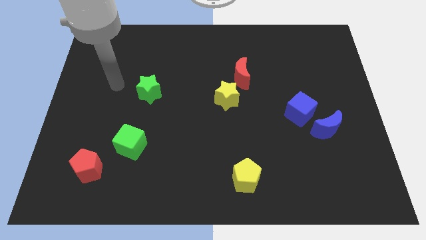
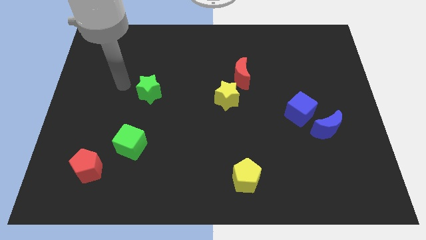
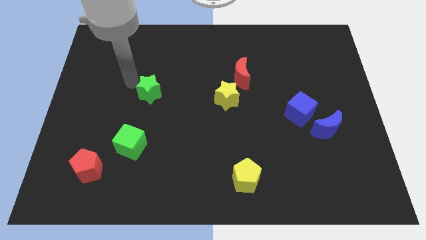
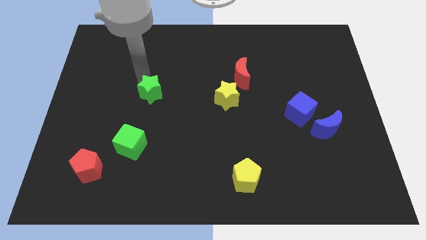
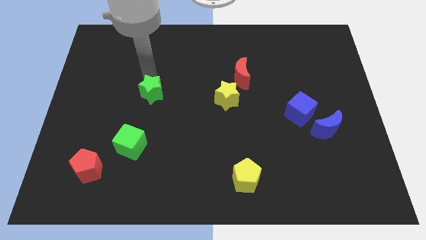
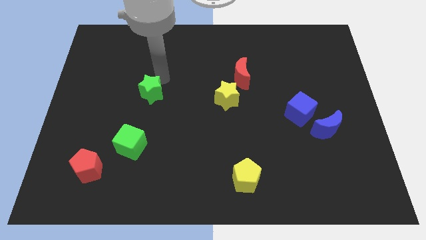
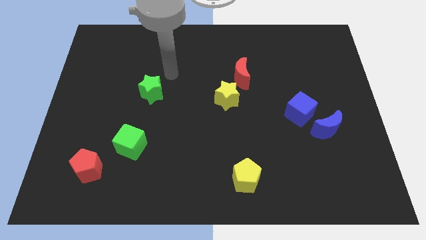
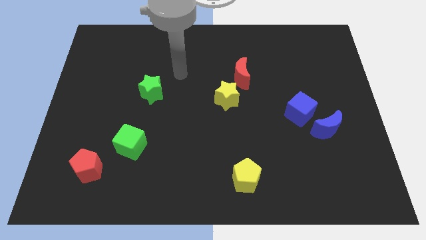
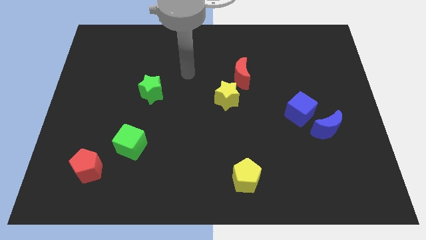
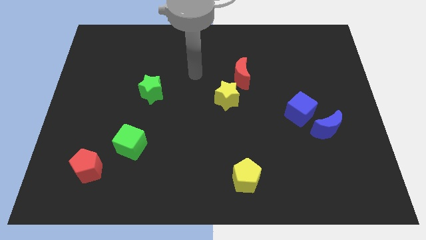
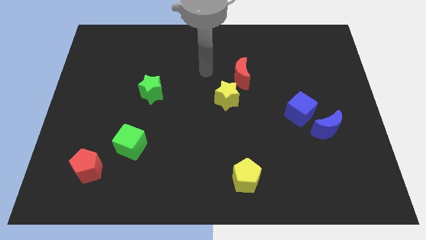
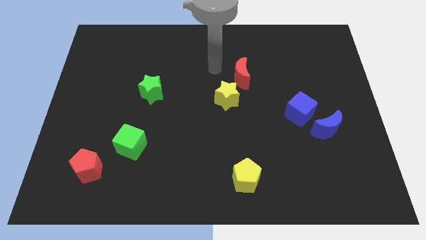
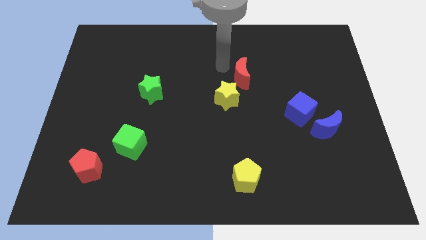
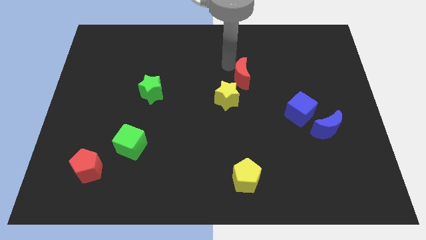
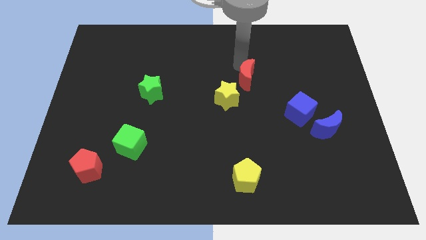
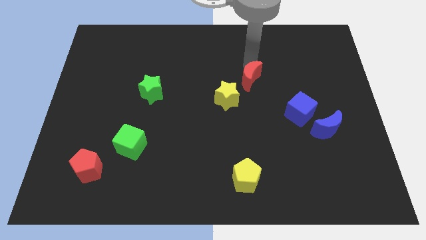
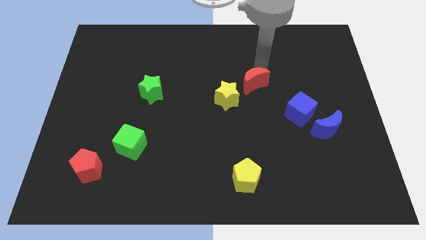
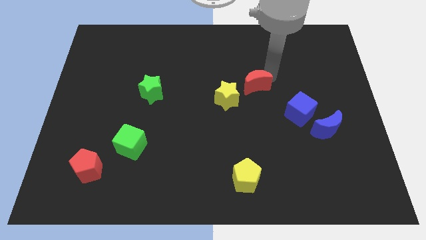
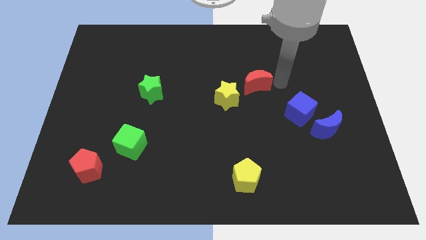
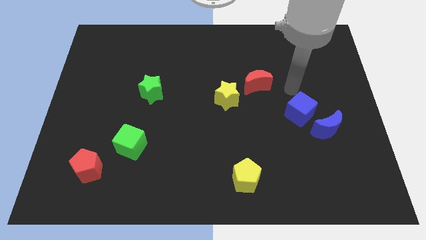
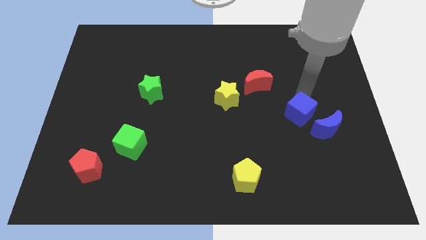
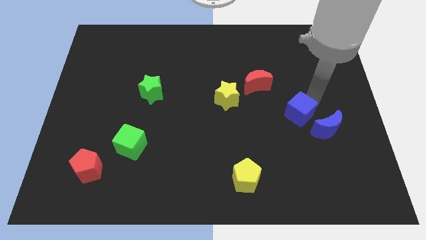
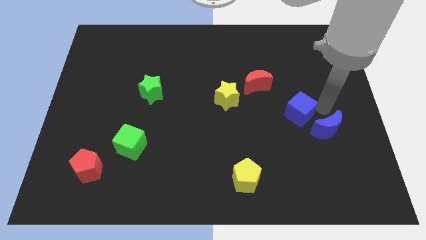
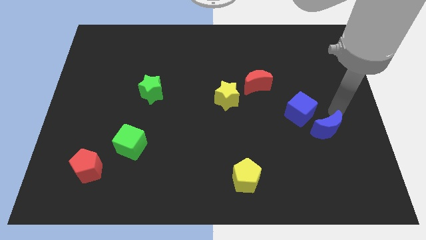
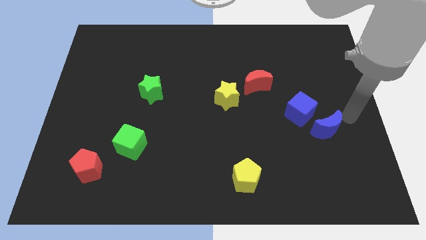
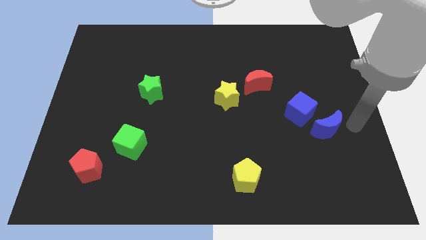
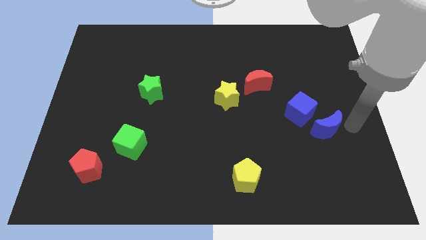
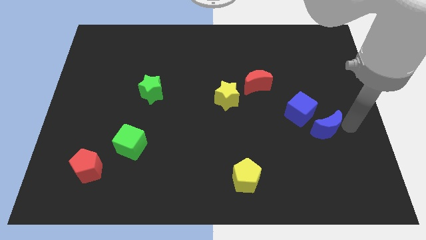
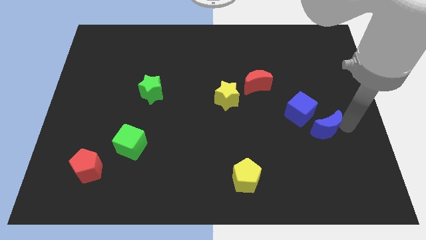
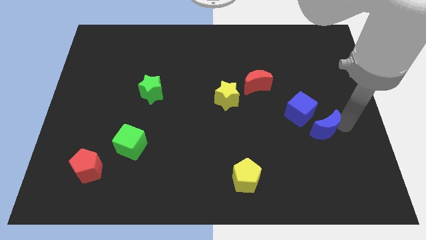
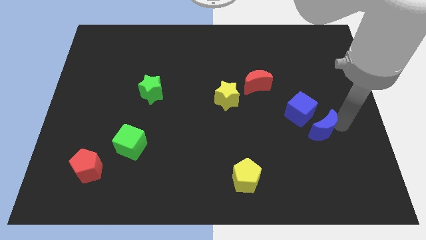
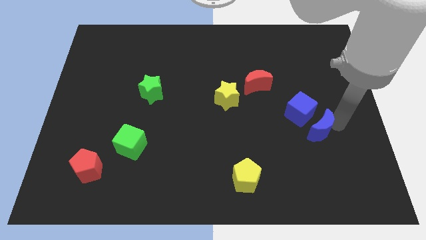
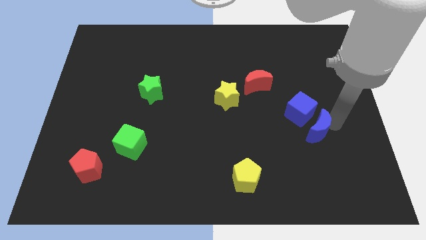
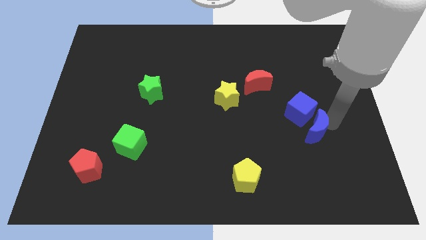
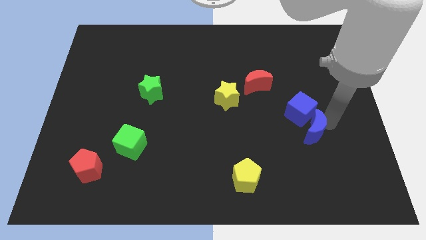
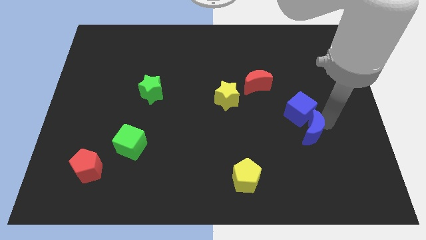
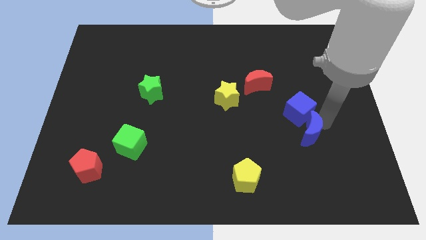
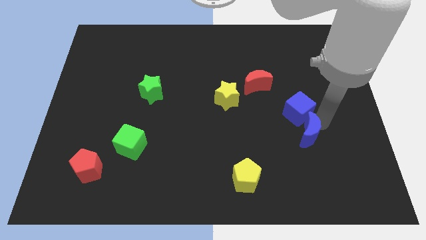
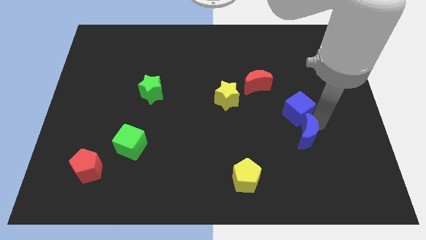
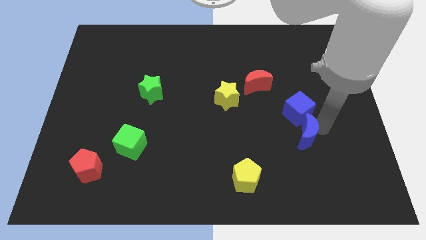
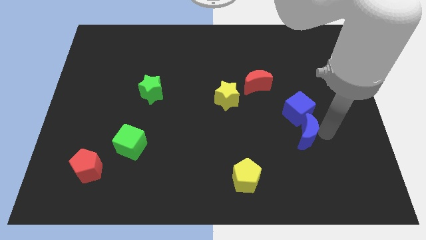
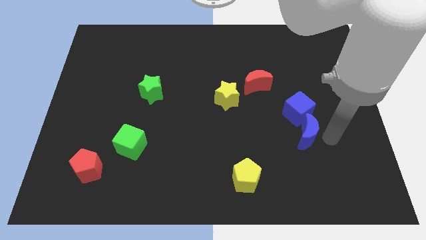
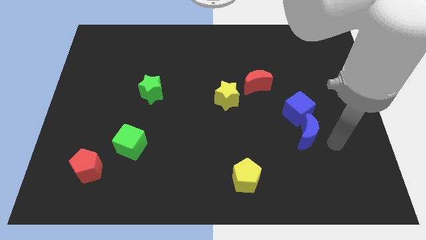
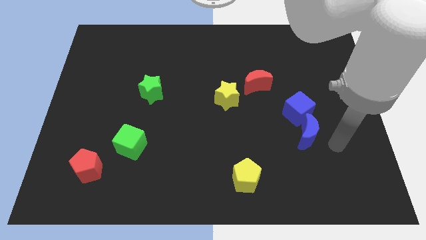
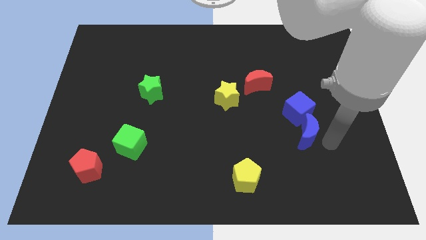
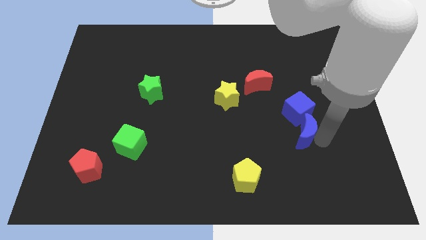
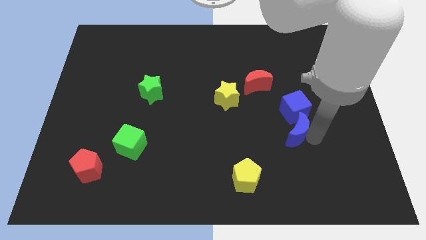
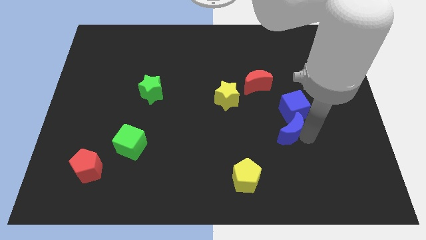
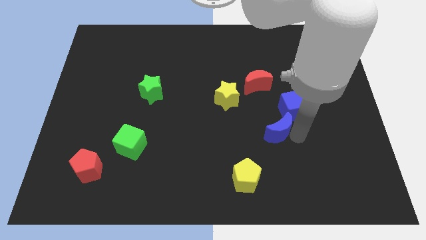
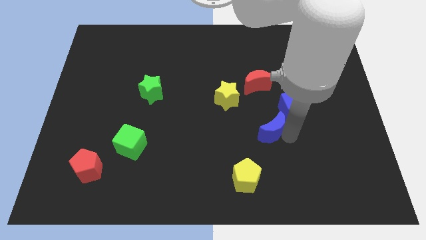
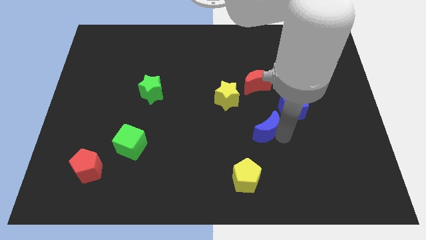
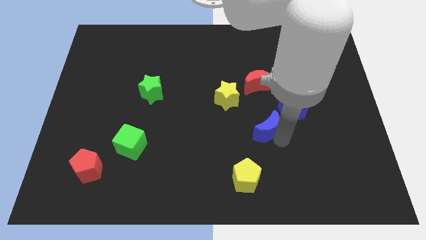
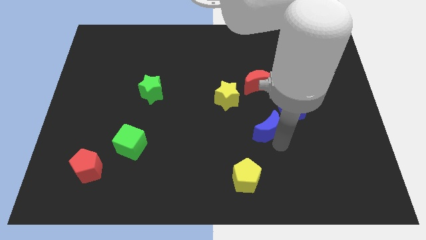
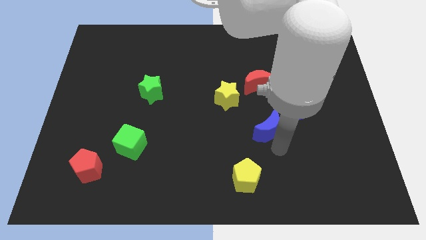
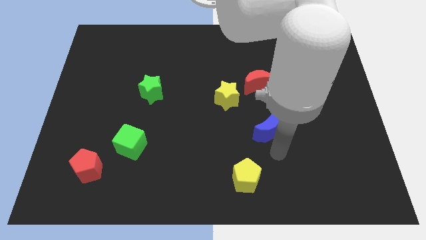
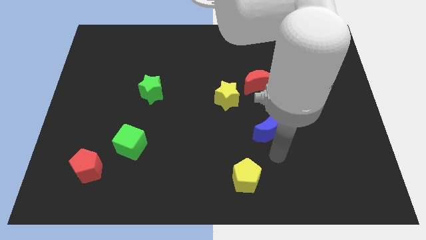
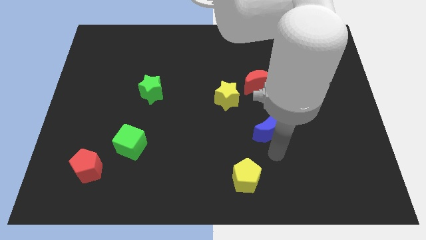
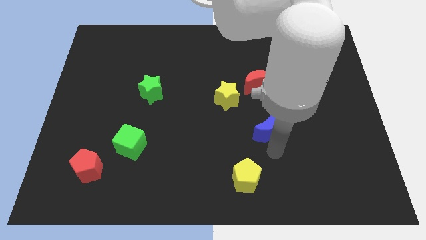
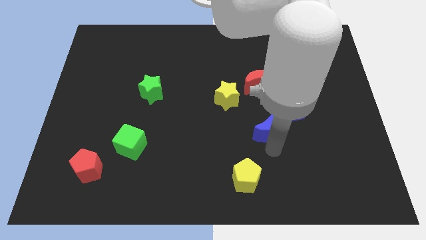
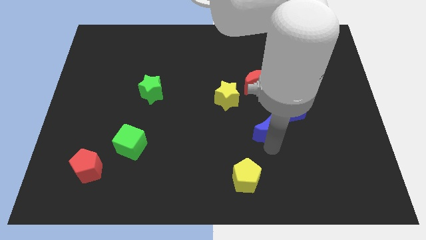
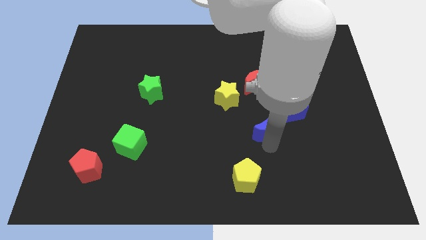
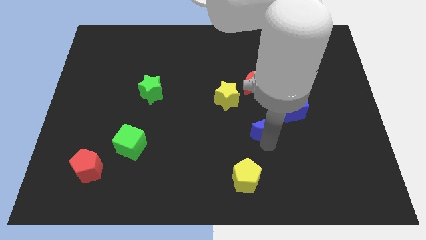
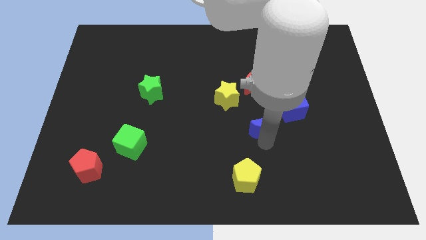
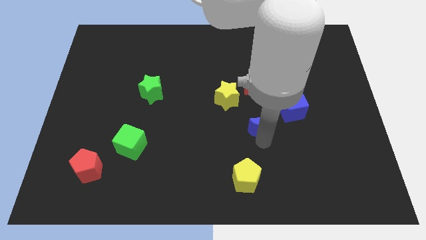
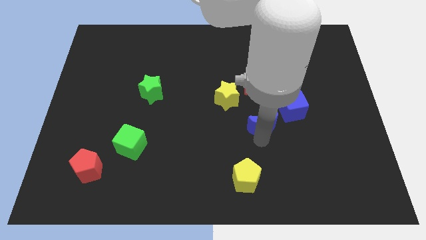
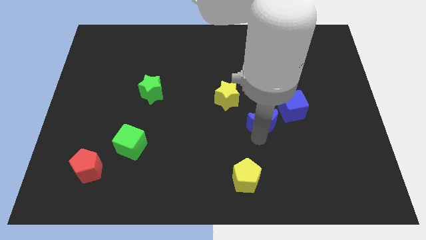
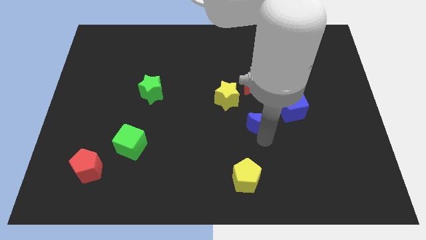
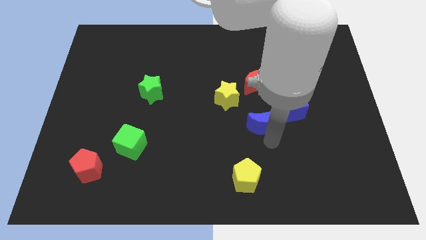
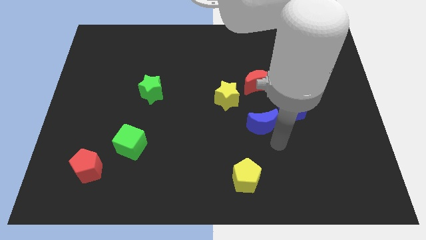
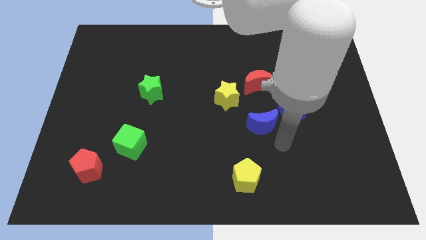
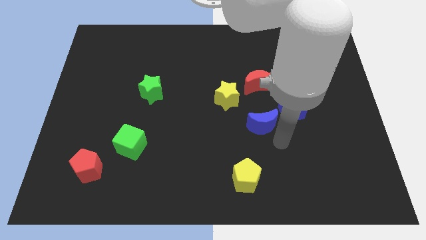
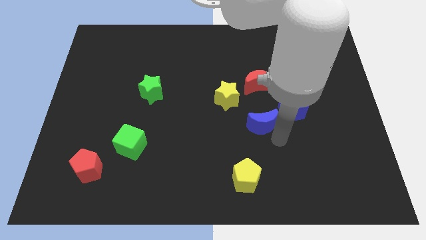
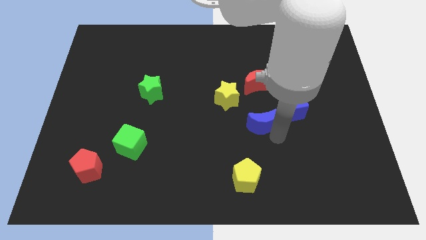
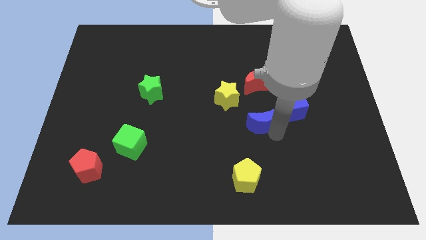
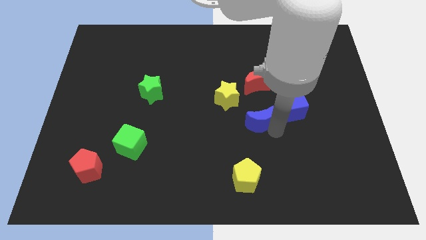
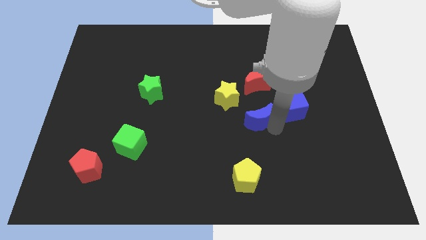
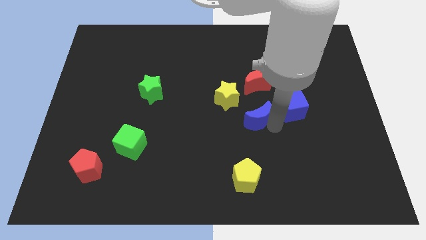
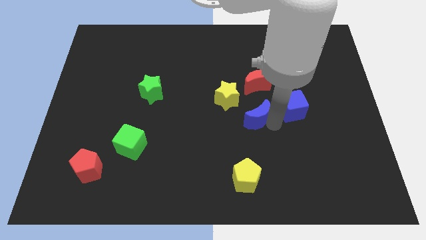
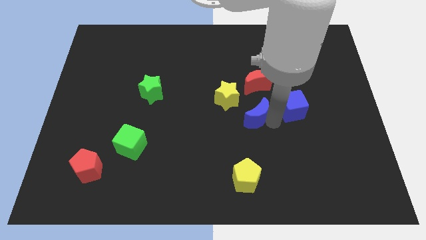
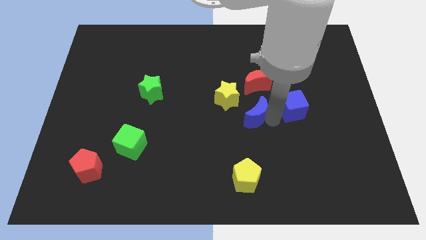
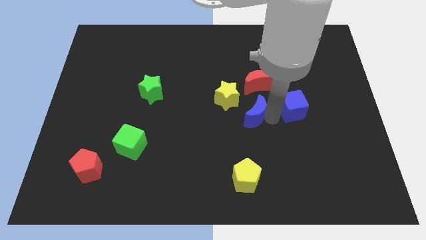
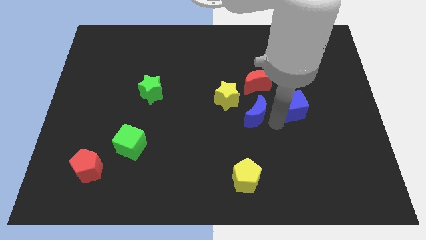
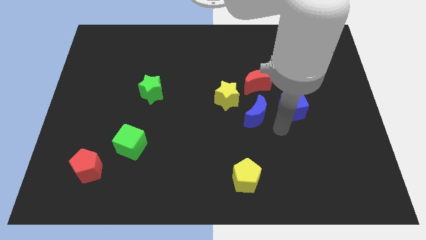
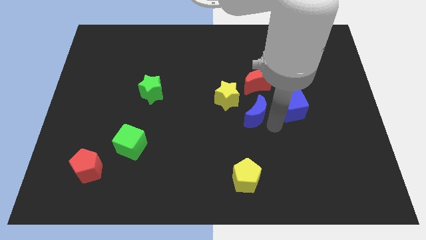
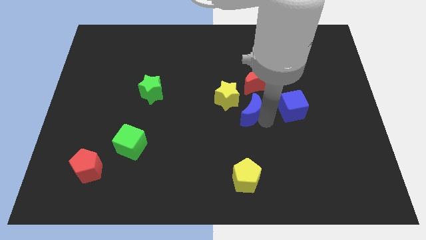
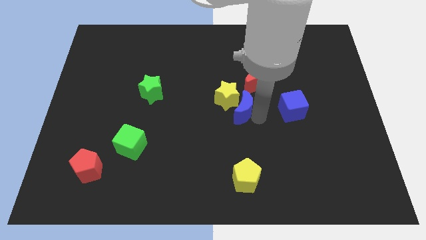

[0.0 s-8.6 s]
slide the blue moon to the yellow star
